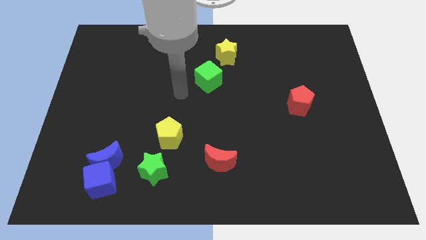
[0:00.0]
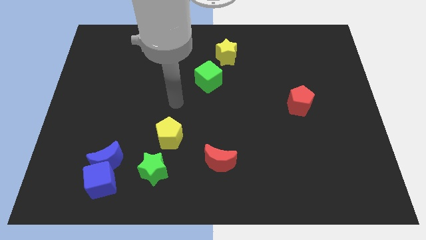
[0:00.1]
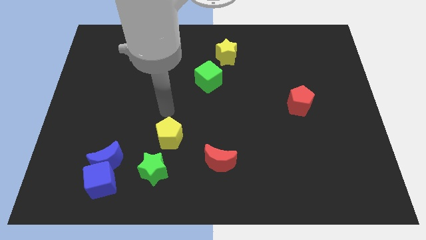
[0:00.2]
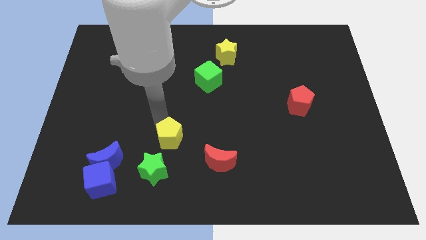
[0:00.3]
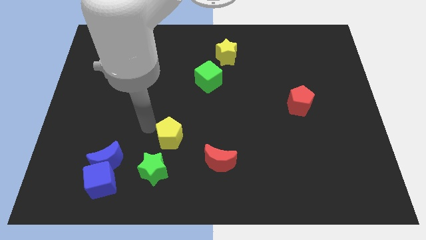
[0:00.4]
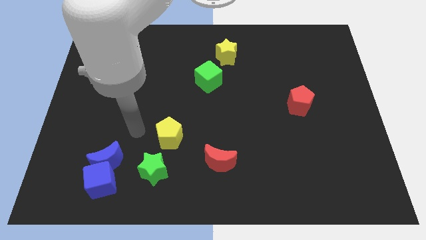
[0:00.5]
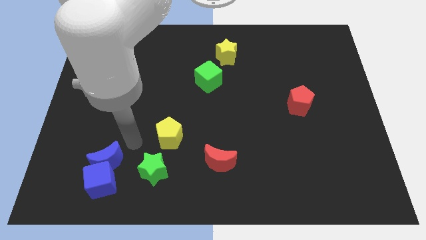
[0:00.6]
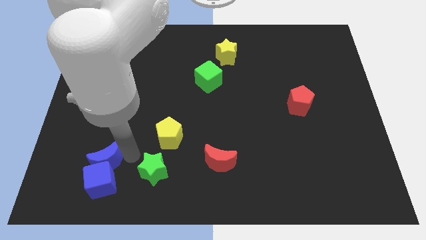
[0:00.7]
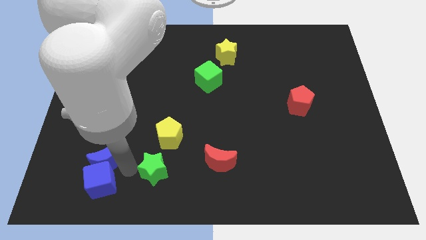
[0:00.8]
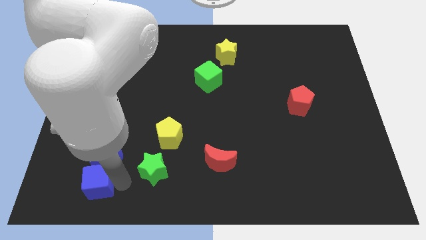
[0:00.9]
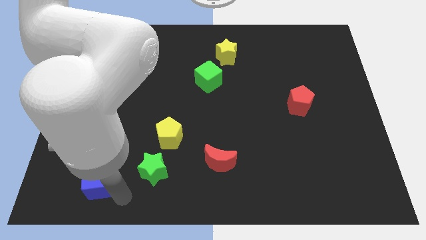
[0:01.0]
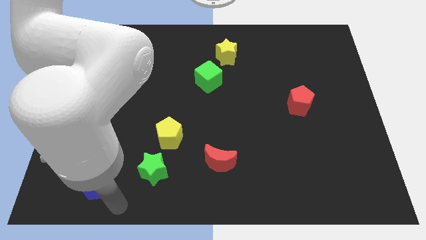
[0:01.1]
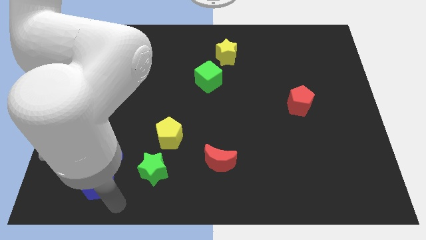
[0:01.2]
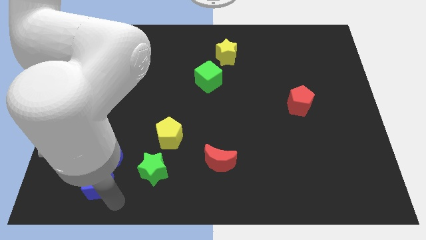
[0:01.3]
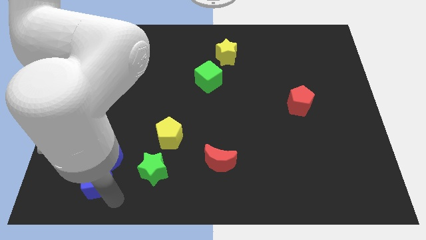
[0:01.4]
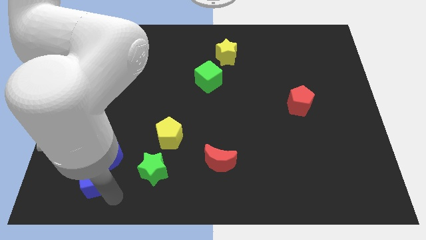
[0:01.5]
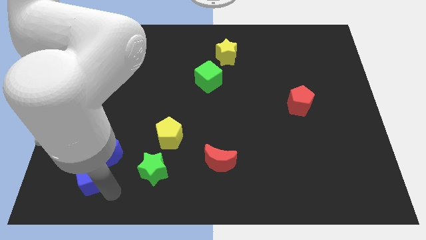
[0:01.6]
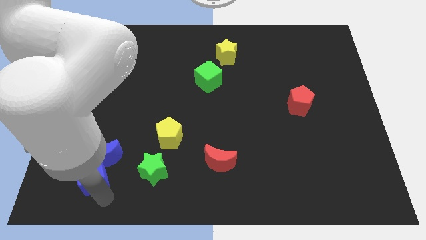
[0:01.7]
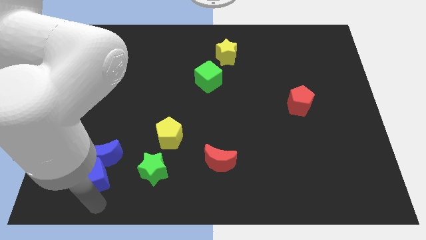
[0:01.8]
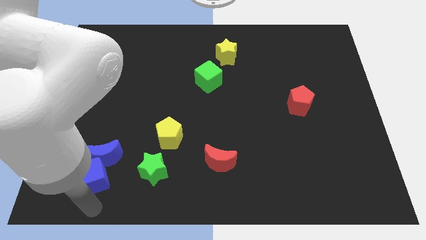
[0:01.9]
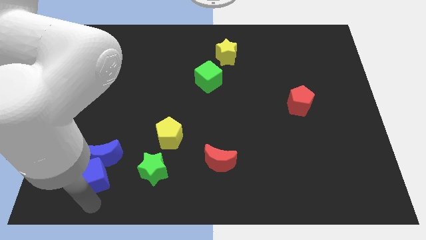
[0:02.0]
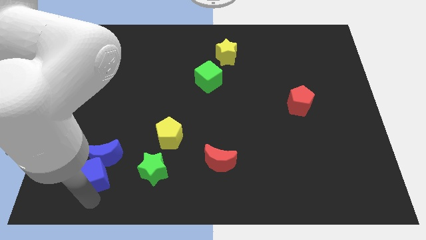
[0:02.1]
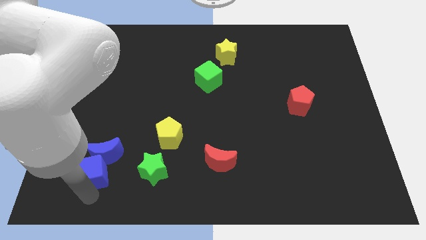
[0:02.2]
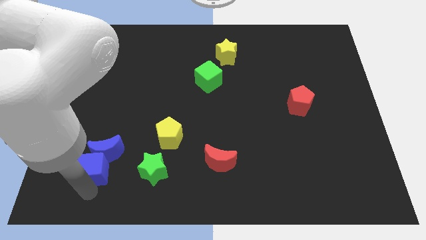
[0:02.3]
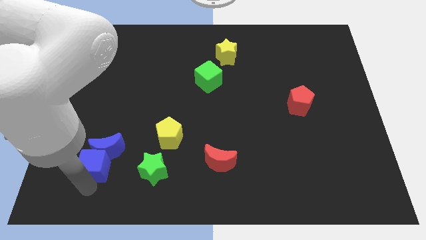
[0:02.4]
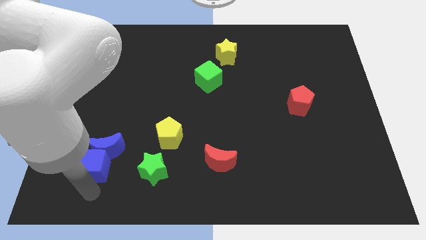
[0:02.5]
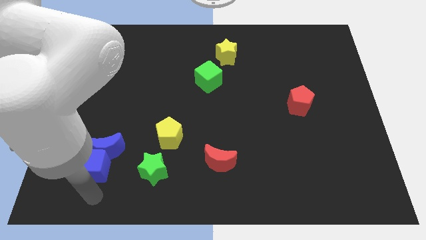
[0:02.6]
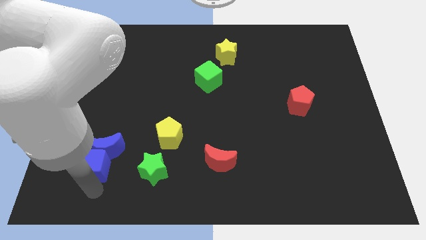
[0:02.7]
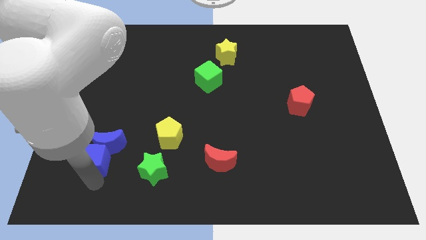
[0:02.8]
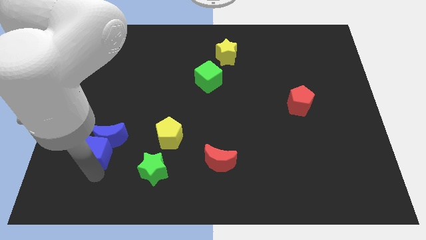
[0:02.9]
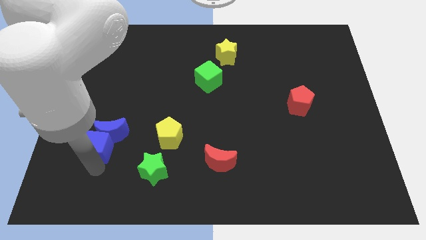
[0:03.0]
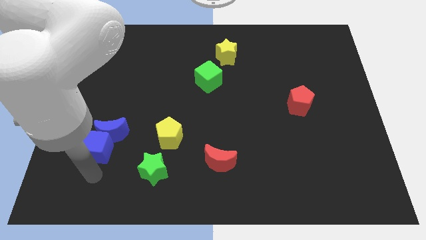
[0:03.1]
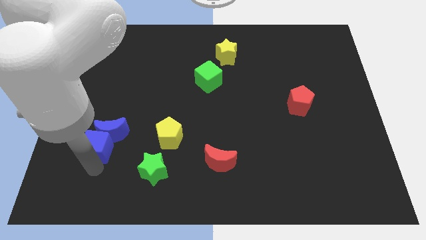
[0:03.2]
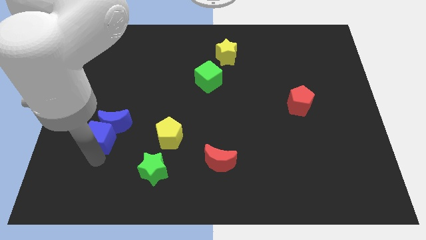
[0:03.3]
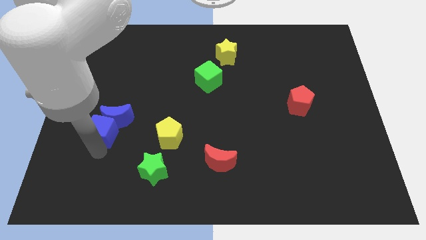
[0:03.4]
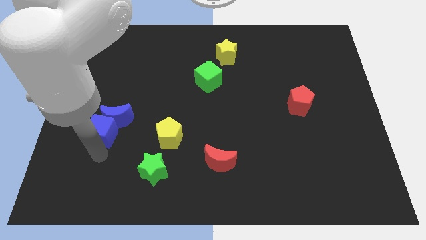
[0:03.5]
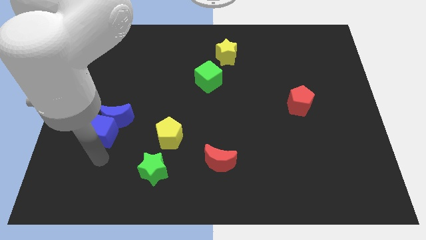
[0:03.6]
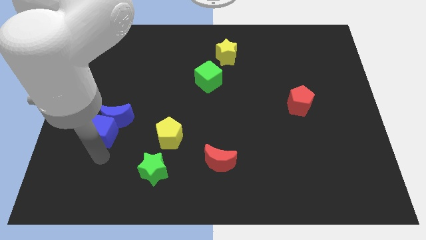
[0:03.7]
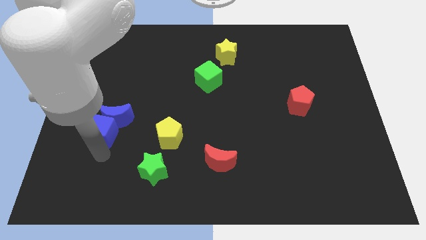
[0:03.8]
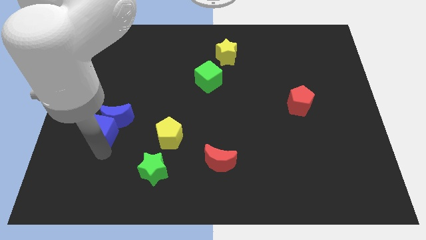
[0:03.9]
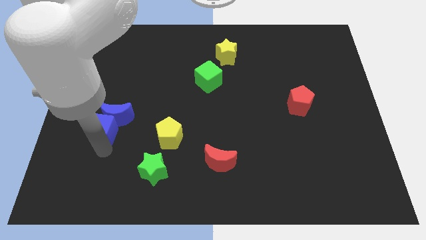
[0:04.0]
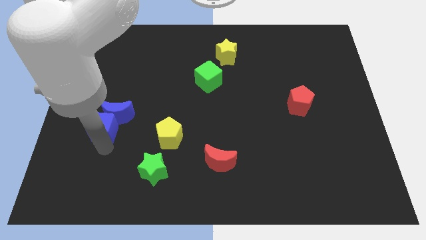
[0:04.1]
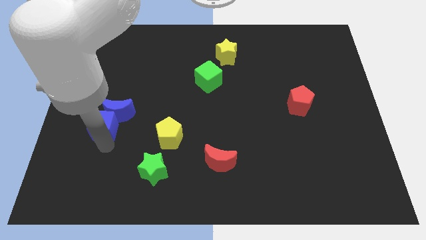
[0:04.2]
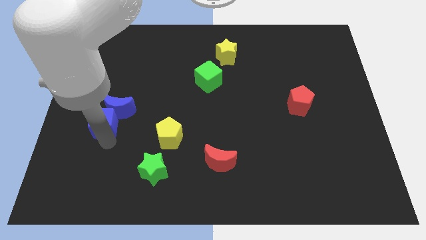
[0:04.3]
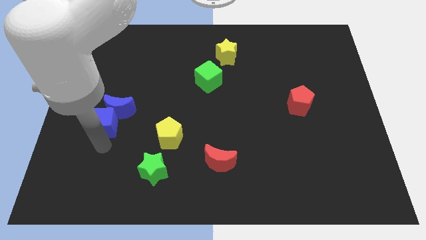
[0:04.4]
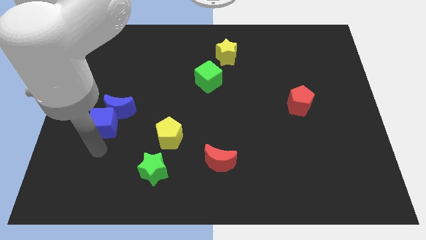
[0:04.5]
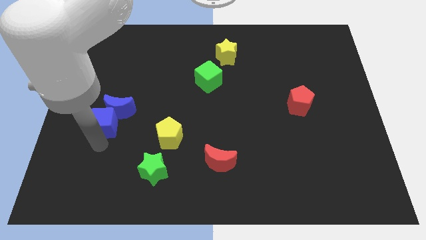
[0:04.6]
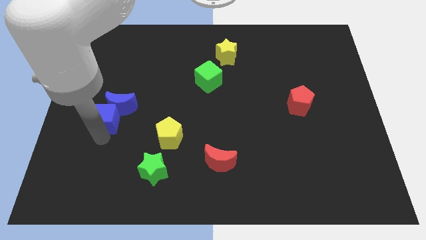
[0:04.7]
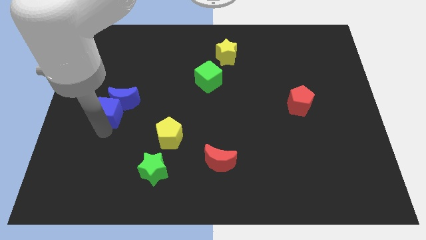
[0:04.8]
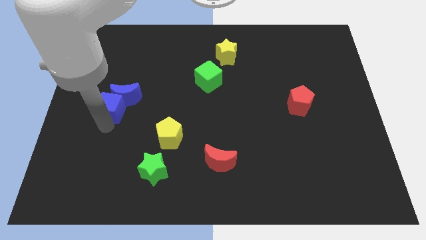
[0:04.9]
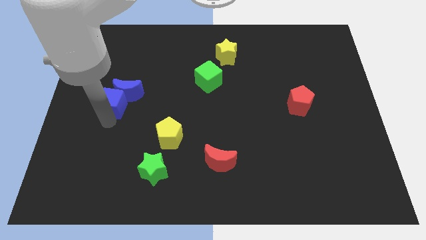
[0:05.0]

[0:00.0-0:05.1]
slide the blue cube upwards

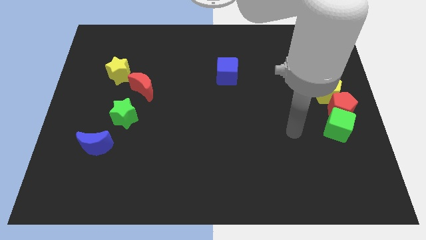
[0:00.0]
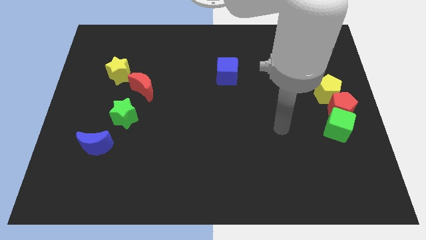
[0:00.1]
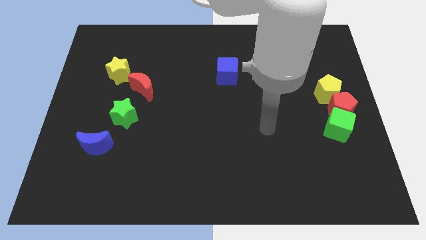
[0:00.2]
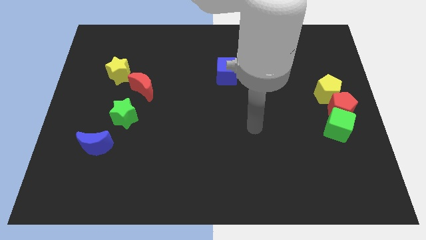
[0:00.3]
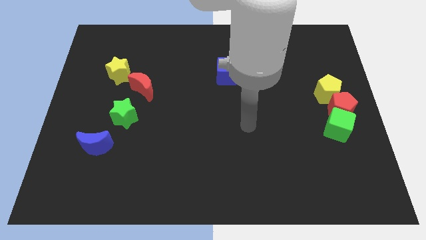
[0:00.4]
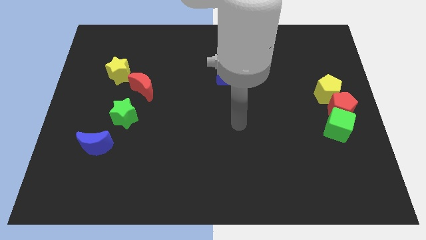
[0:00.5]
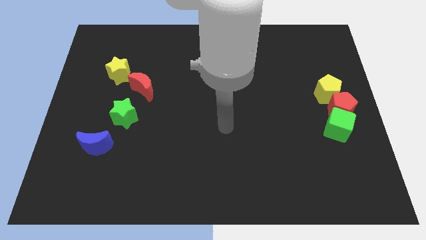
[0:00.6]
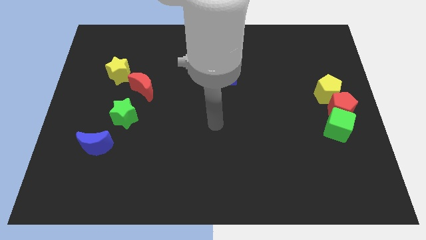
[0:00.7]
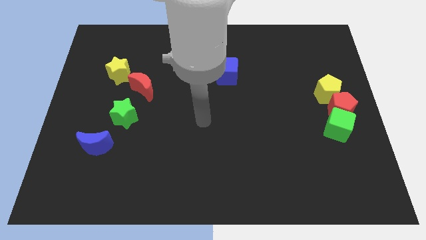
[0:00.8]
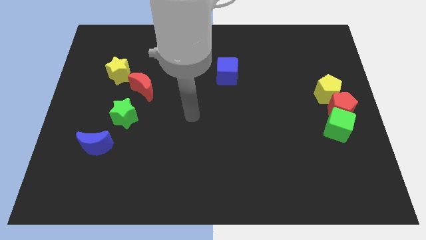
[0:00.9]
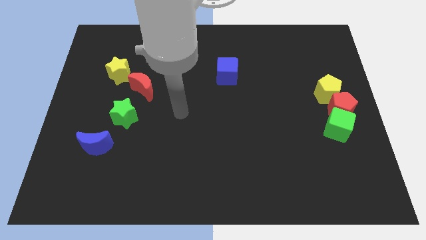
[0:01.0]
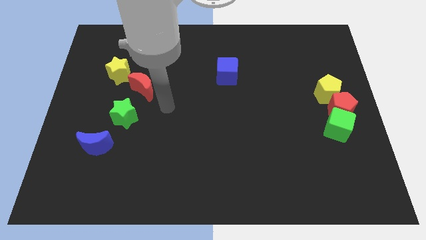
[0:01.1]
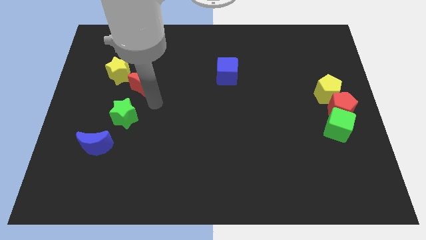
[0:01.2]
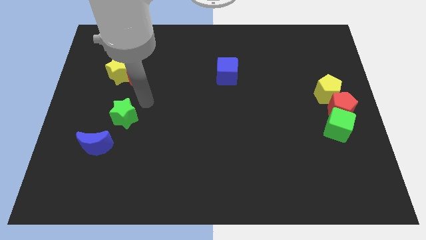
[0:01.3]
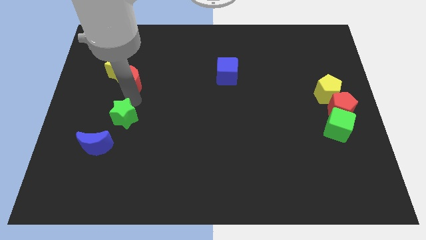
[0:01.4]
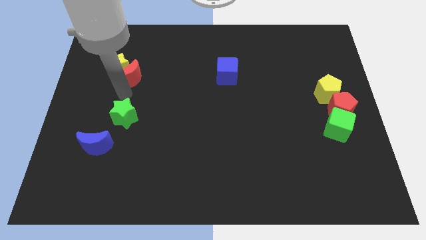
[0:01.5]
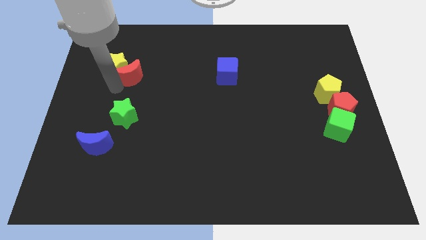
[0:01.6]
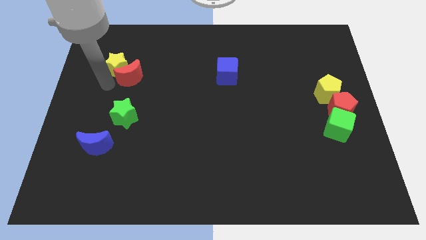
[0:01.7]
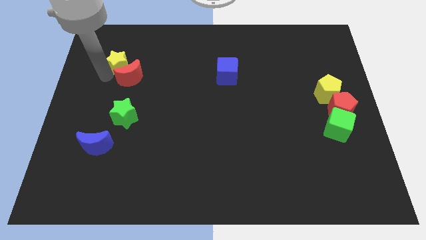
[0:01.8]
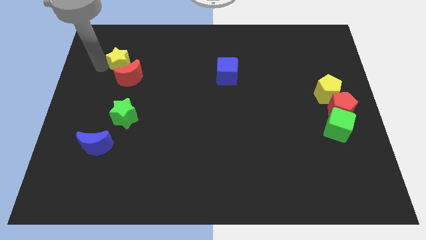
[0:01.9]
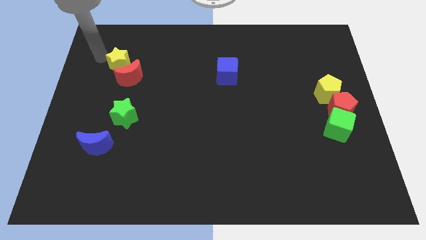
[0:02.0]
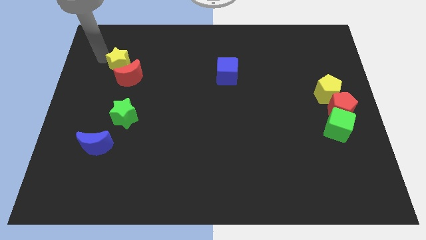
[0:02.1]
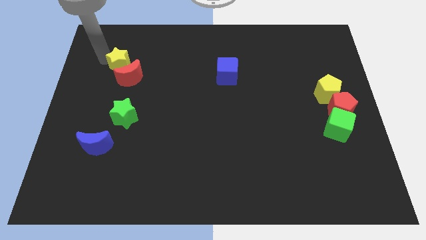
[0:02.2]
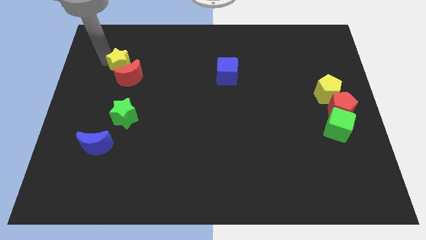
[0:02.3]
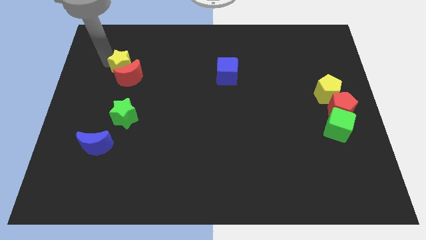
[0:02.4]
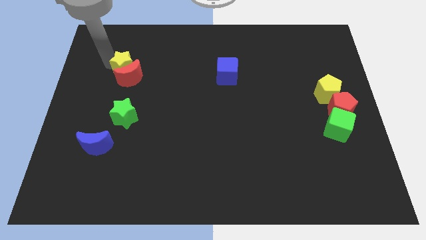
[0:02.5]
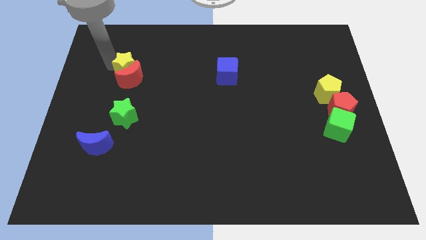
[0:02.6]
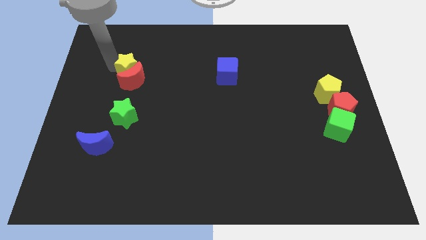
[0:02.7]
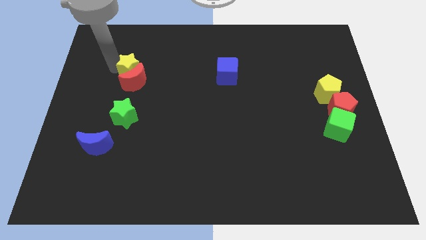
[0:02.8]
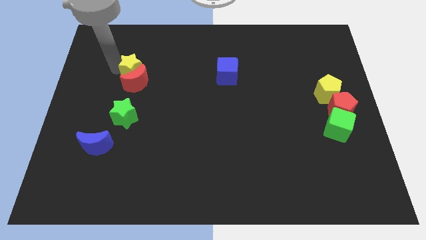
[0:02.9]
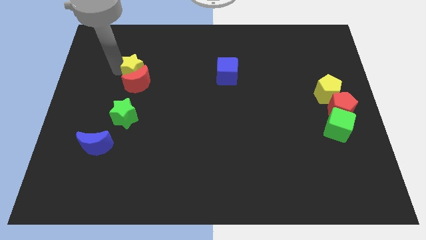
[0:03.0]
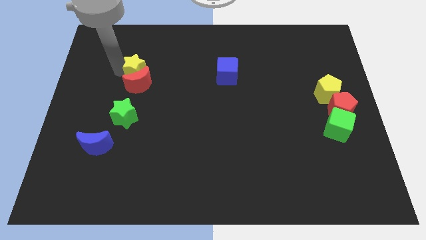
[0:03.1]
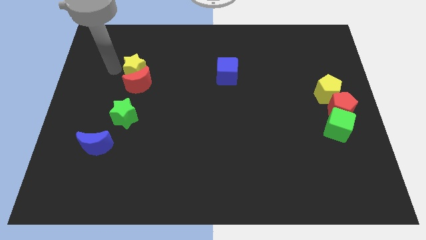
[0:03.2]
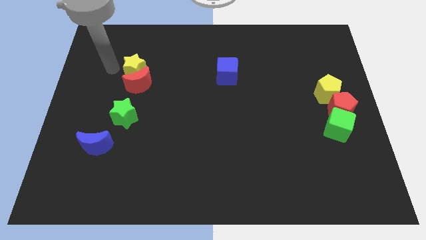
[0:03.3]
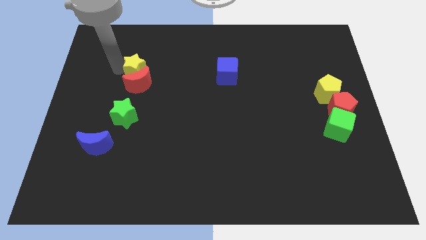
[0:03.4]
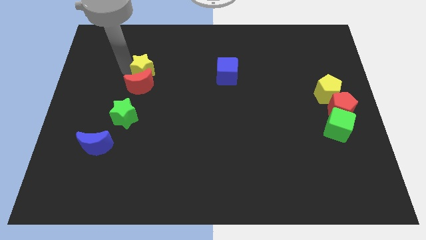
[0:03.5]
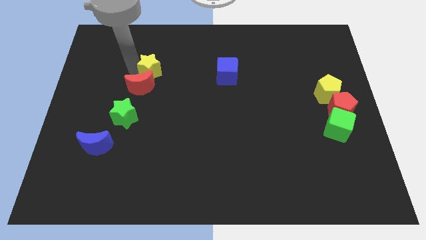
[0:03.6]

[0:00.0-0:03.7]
slide the yellow star slightly right
